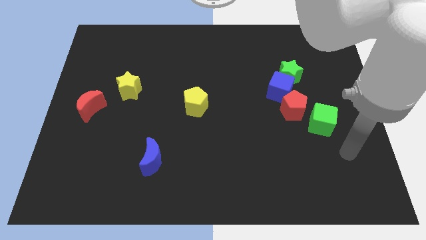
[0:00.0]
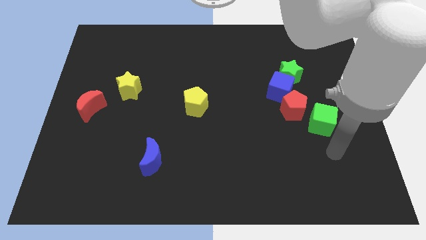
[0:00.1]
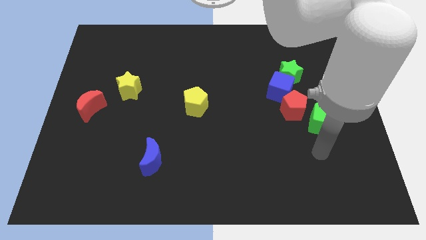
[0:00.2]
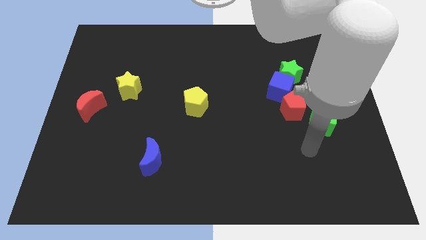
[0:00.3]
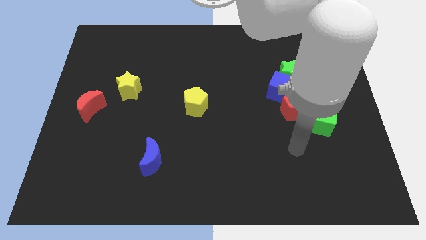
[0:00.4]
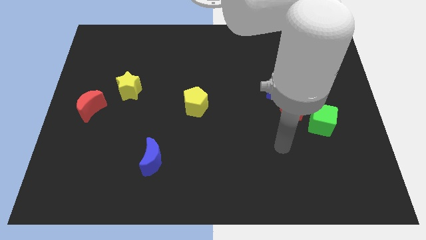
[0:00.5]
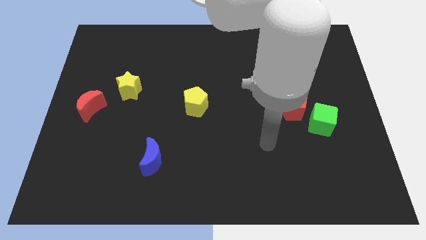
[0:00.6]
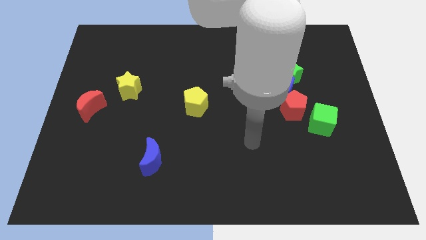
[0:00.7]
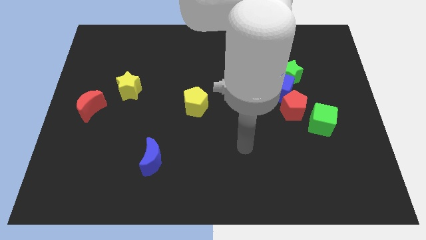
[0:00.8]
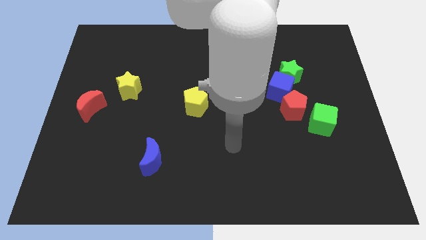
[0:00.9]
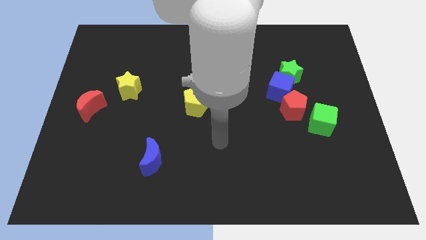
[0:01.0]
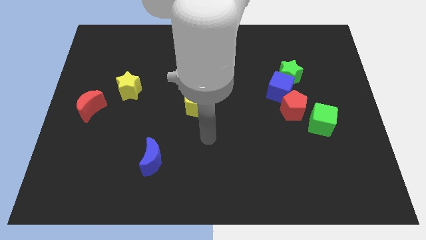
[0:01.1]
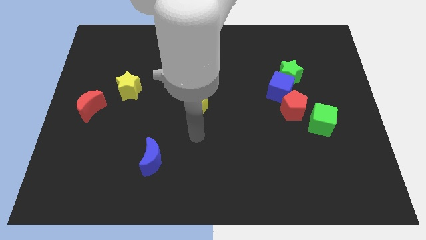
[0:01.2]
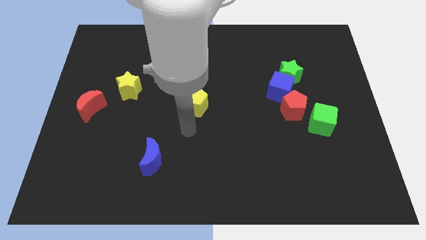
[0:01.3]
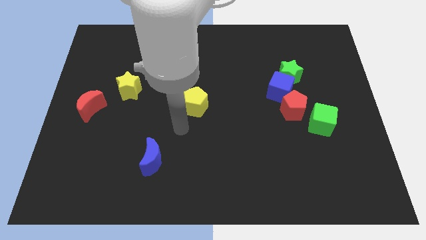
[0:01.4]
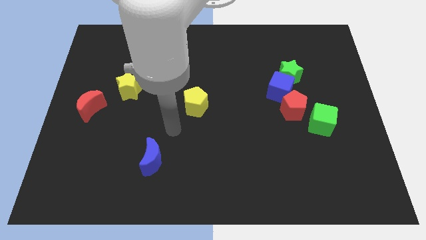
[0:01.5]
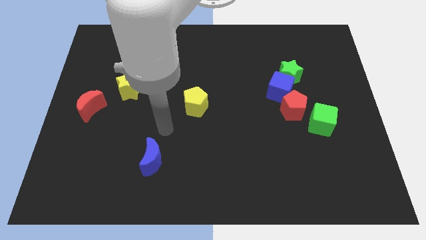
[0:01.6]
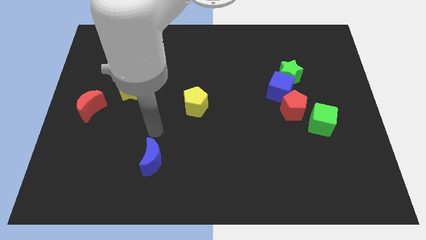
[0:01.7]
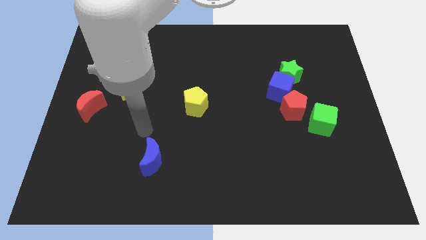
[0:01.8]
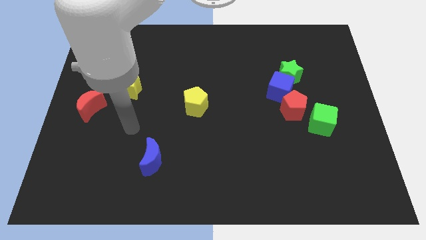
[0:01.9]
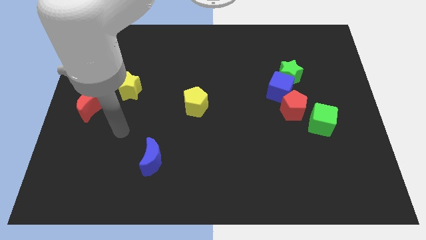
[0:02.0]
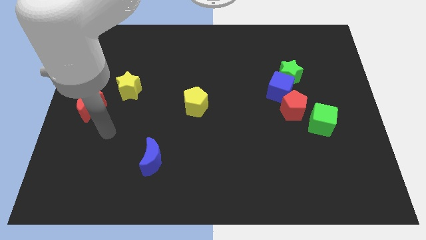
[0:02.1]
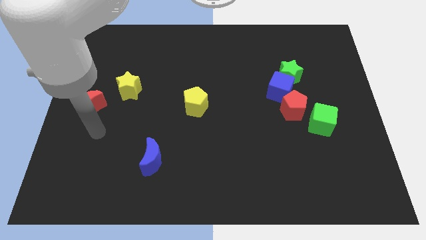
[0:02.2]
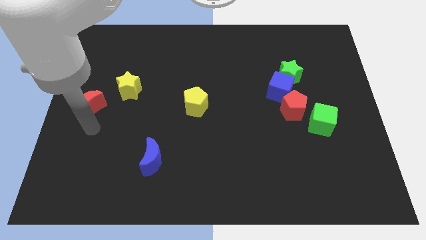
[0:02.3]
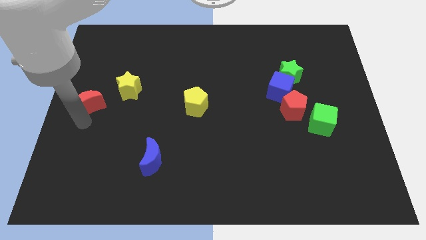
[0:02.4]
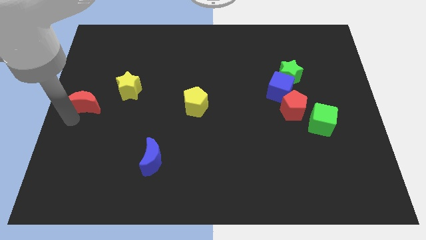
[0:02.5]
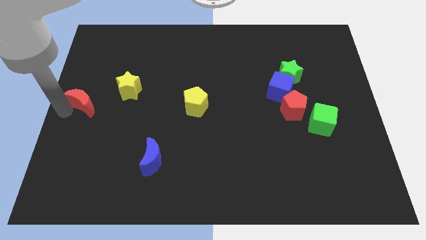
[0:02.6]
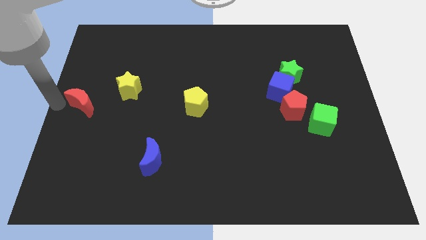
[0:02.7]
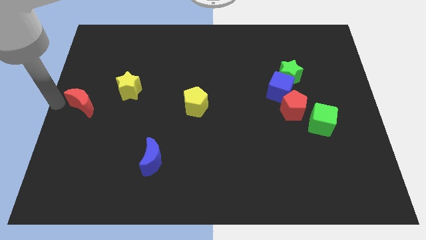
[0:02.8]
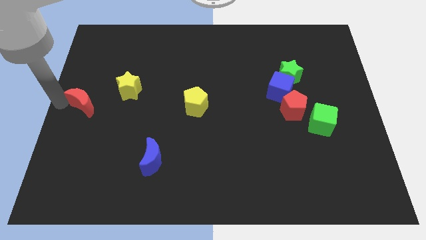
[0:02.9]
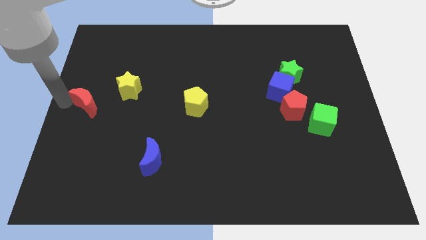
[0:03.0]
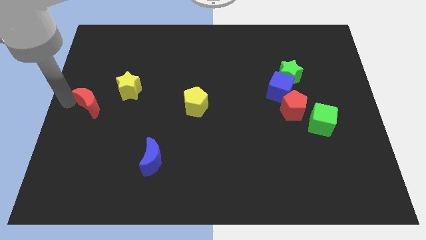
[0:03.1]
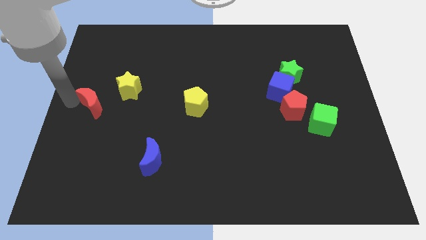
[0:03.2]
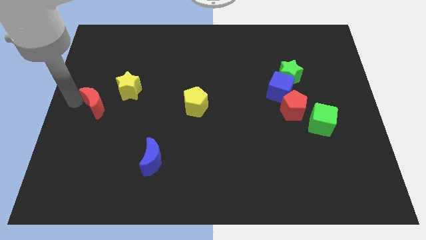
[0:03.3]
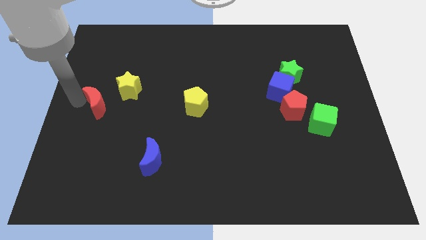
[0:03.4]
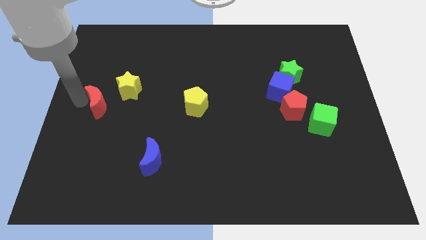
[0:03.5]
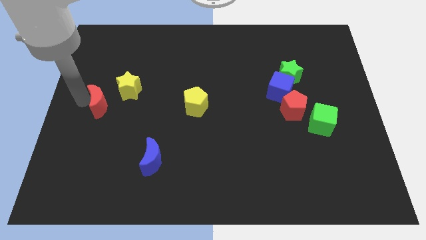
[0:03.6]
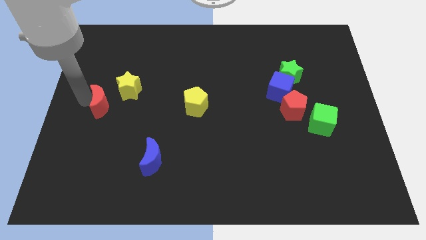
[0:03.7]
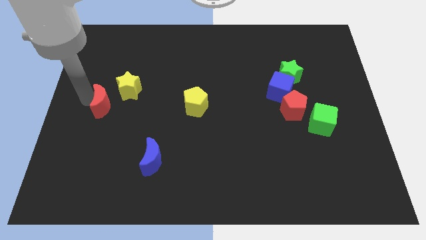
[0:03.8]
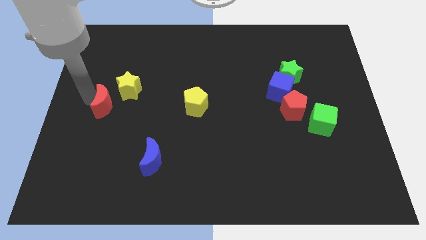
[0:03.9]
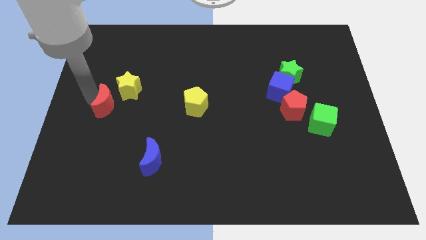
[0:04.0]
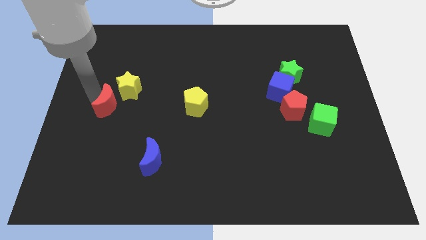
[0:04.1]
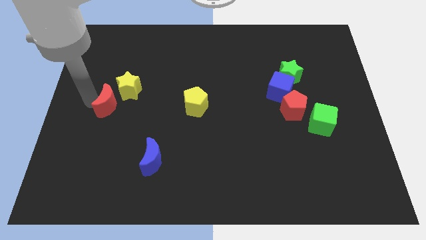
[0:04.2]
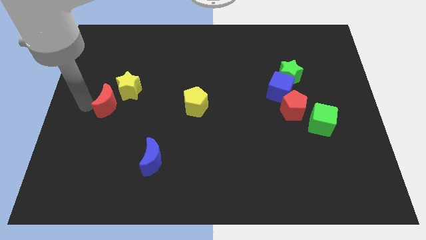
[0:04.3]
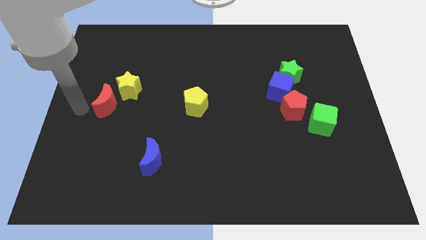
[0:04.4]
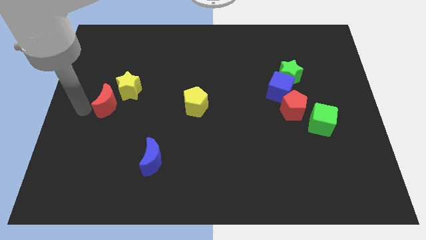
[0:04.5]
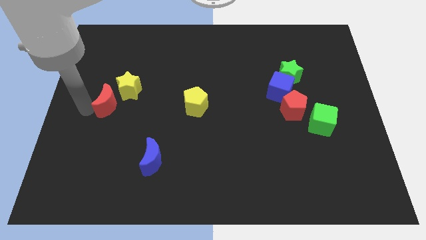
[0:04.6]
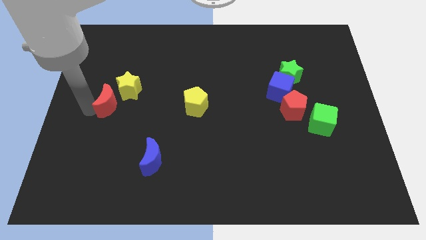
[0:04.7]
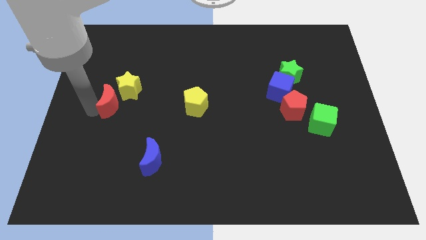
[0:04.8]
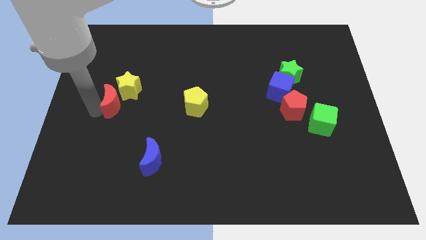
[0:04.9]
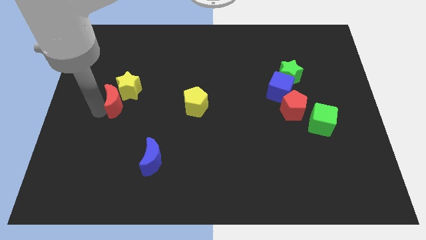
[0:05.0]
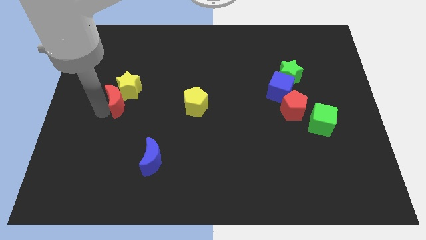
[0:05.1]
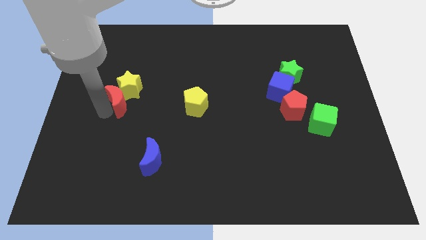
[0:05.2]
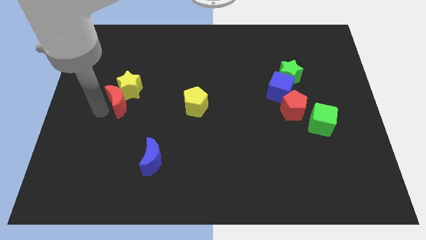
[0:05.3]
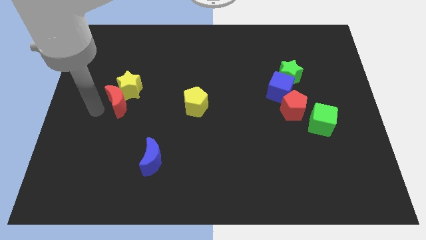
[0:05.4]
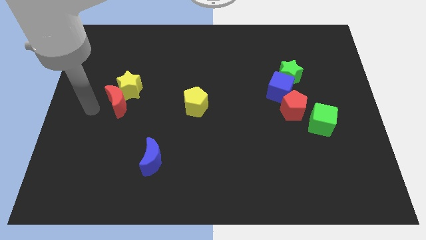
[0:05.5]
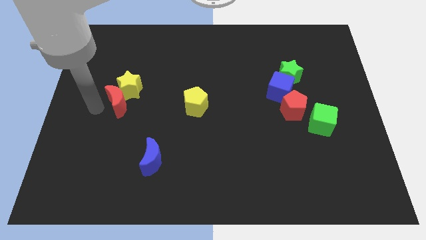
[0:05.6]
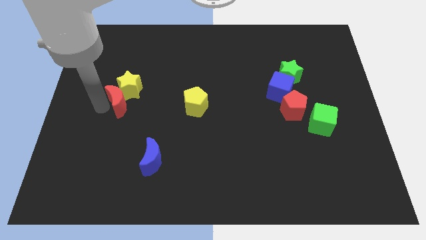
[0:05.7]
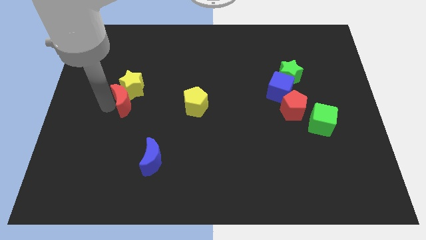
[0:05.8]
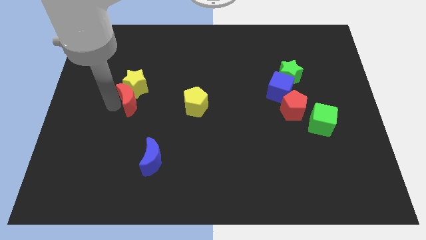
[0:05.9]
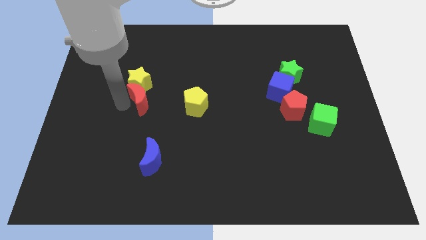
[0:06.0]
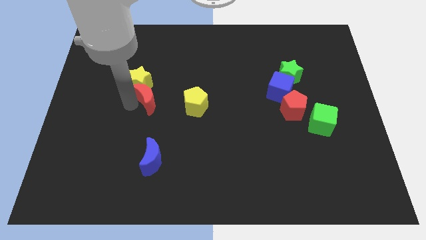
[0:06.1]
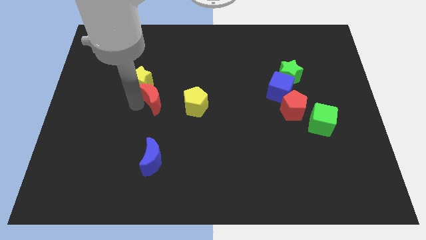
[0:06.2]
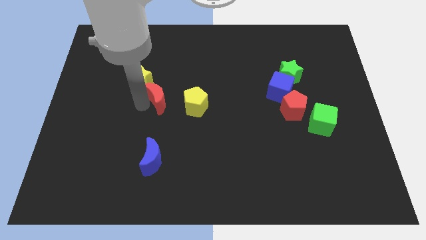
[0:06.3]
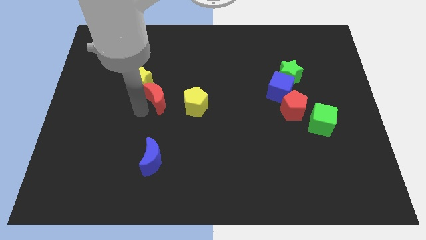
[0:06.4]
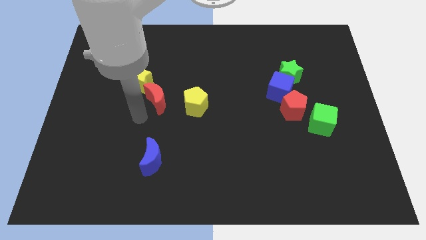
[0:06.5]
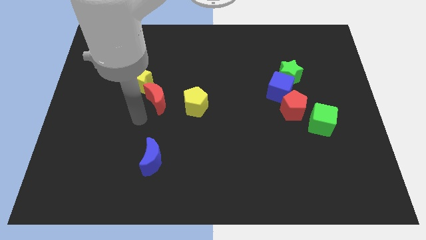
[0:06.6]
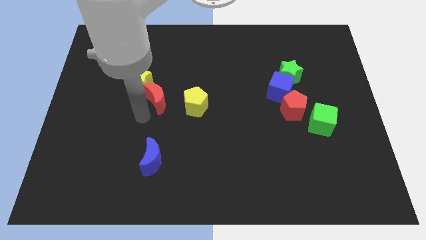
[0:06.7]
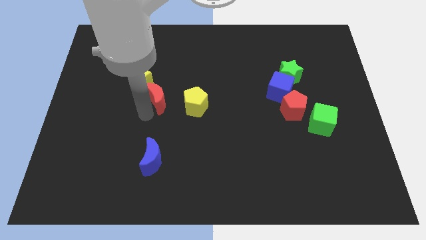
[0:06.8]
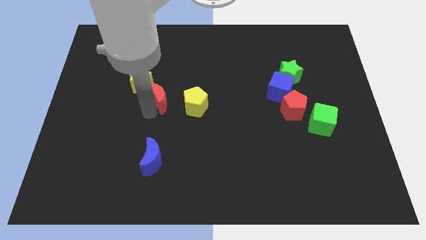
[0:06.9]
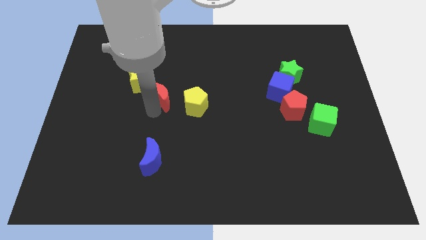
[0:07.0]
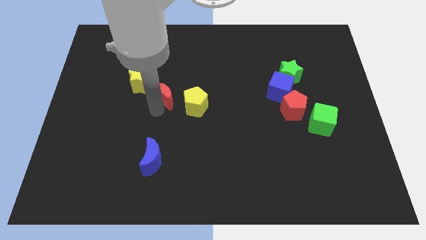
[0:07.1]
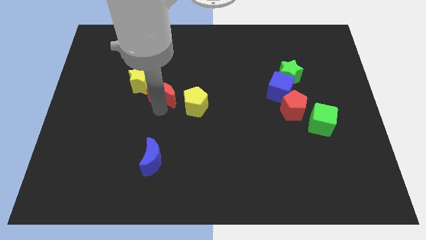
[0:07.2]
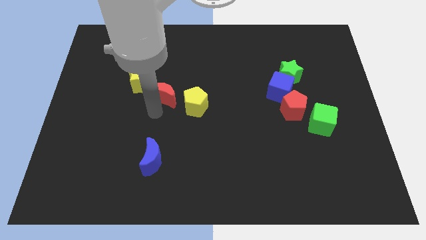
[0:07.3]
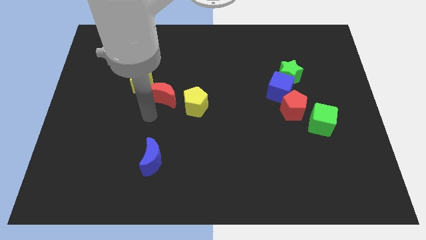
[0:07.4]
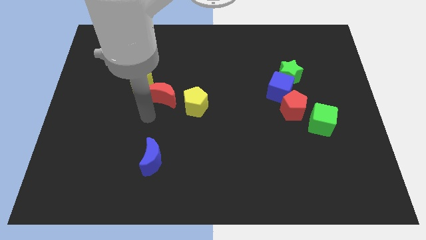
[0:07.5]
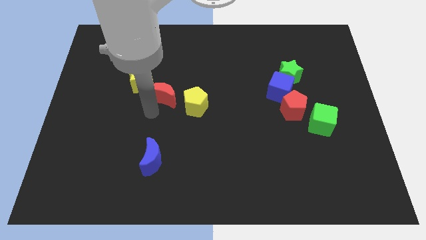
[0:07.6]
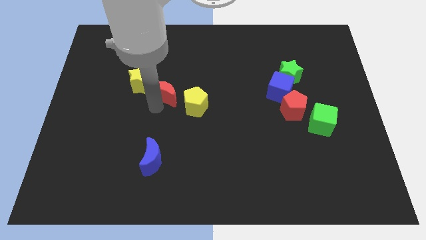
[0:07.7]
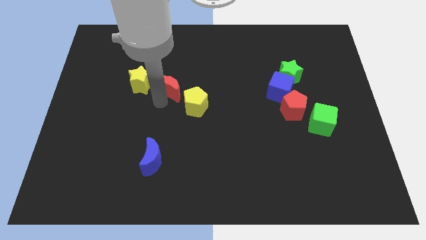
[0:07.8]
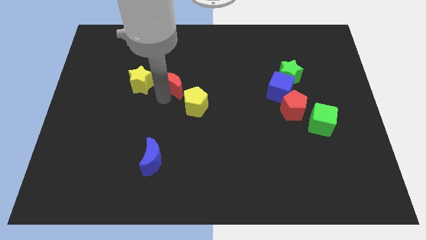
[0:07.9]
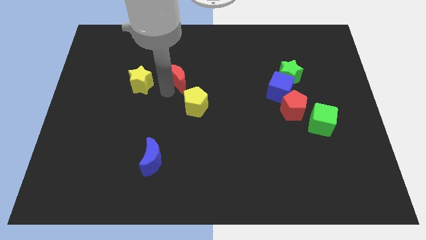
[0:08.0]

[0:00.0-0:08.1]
push the red moon to the top side of the yellow pentagon
